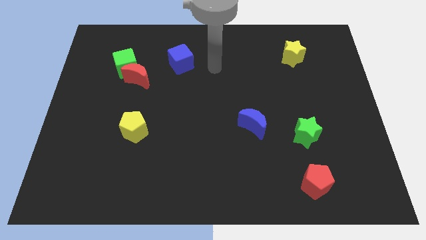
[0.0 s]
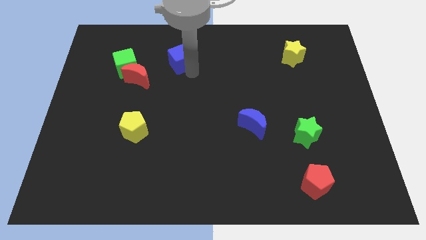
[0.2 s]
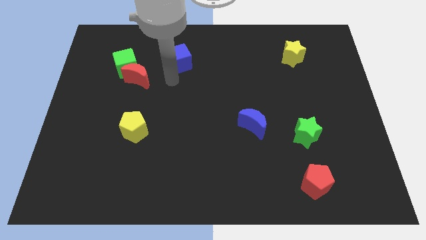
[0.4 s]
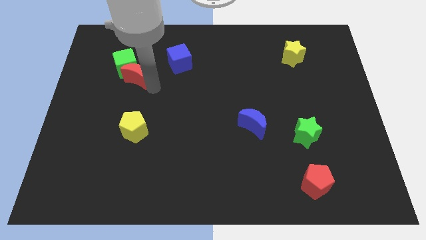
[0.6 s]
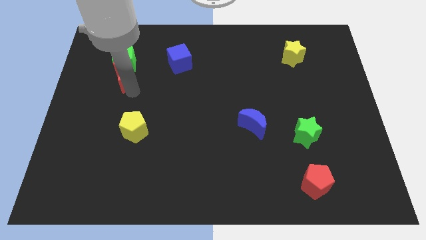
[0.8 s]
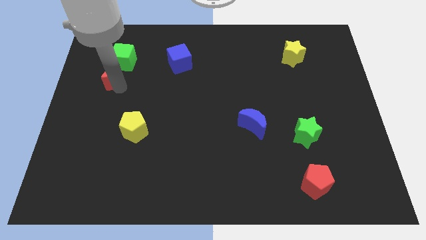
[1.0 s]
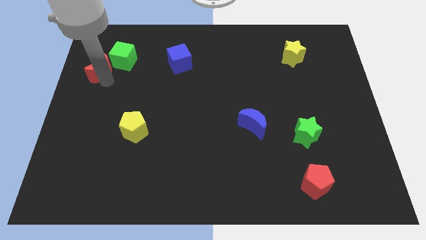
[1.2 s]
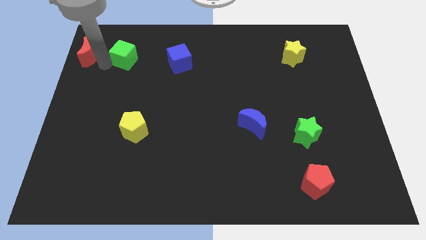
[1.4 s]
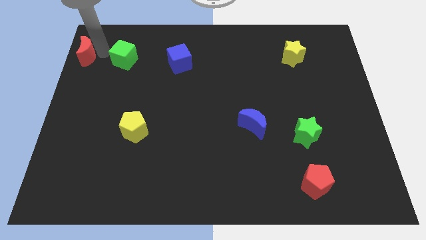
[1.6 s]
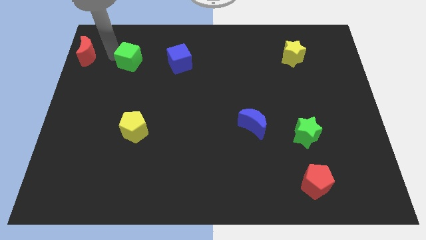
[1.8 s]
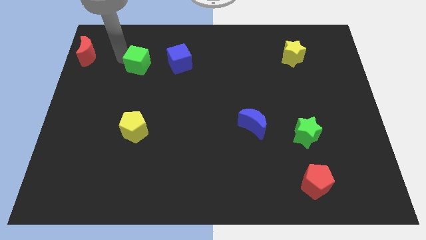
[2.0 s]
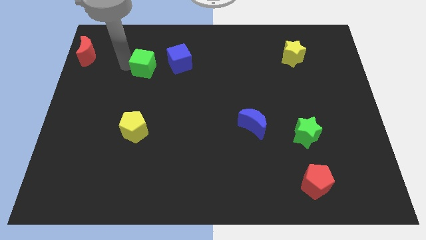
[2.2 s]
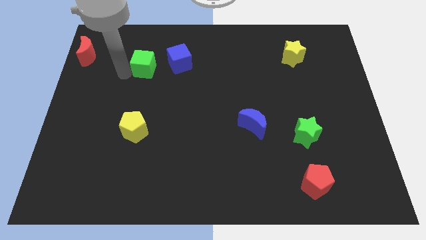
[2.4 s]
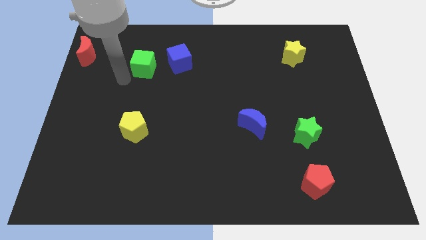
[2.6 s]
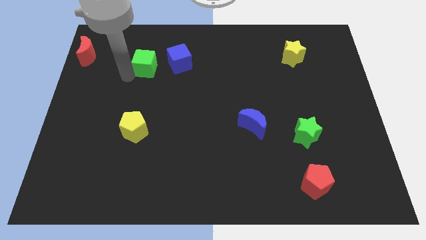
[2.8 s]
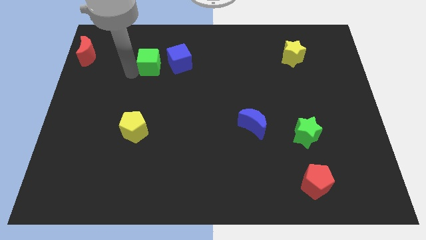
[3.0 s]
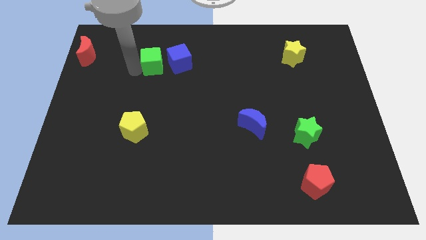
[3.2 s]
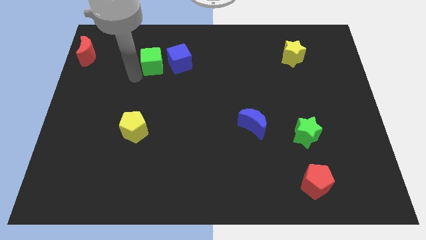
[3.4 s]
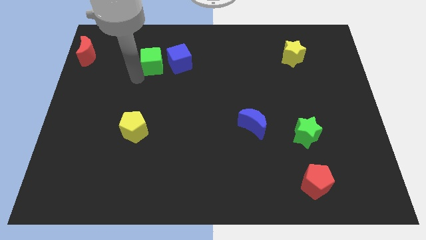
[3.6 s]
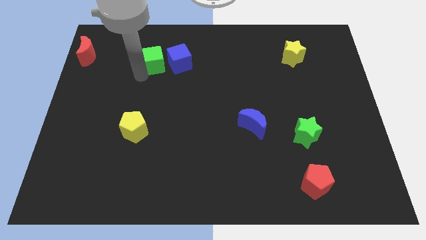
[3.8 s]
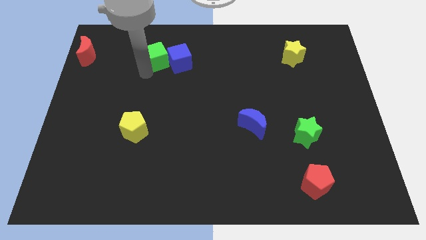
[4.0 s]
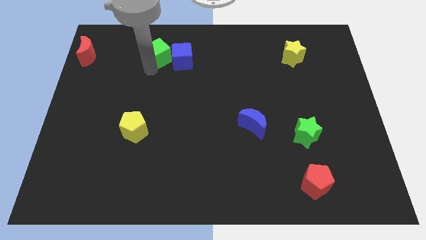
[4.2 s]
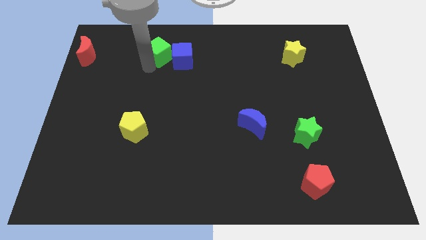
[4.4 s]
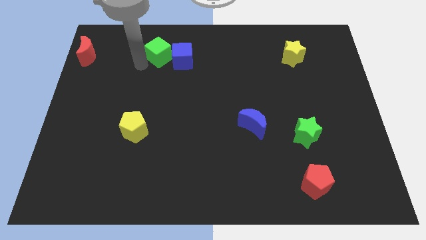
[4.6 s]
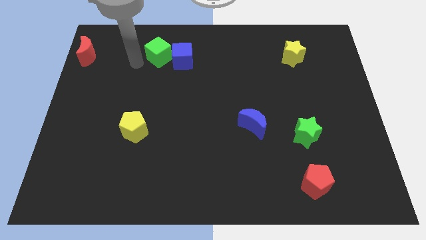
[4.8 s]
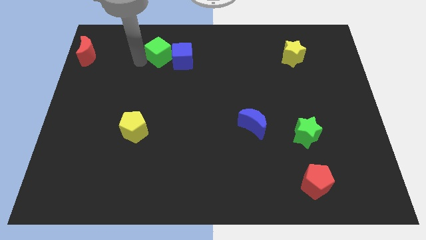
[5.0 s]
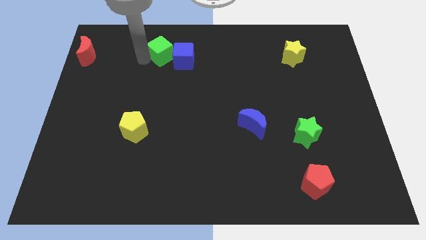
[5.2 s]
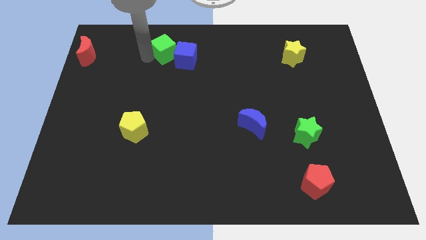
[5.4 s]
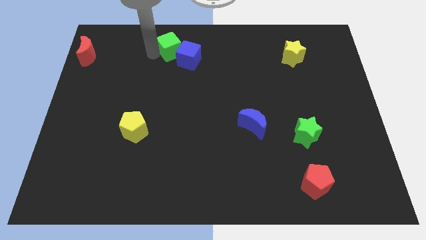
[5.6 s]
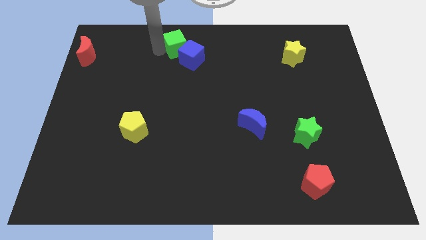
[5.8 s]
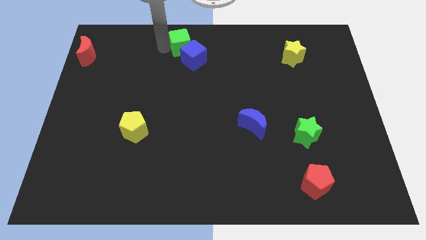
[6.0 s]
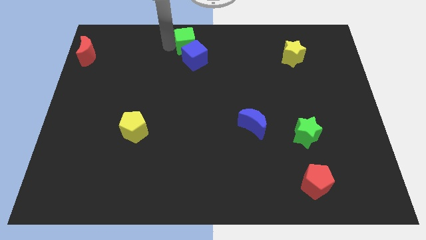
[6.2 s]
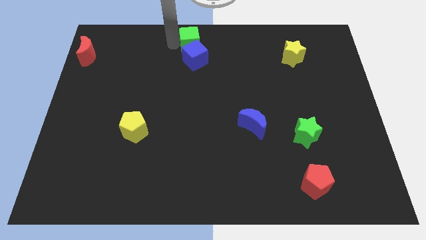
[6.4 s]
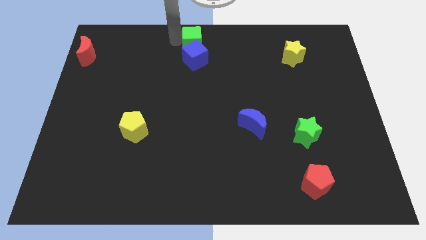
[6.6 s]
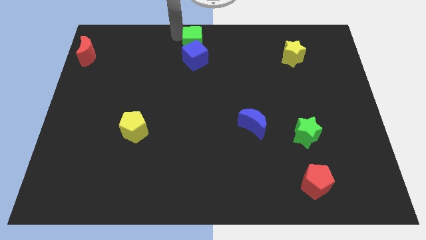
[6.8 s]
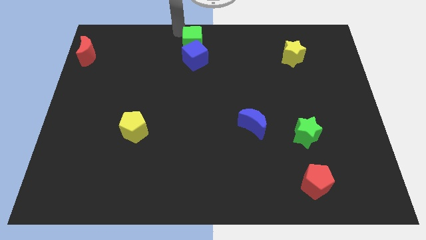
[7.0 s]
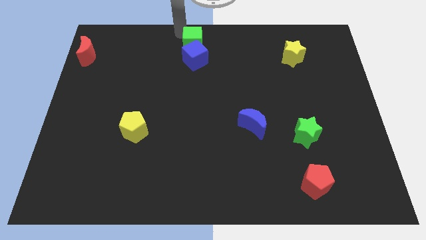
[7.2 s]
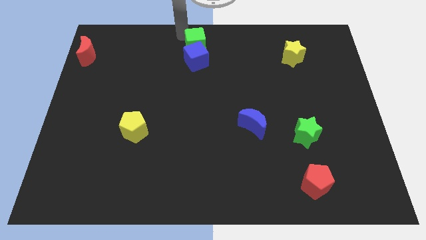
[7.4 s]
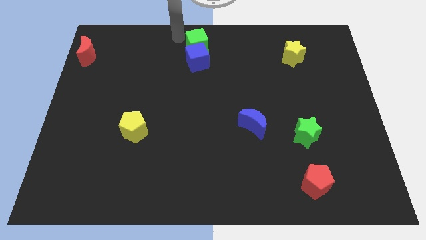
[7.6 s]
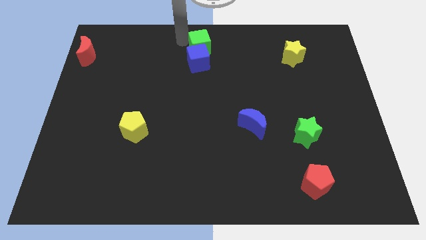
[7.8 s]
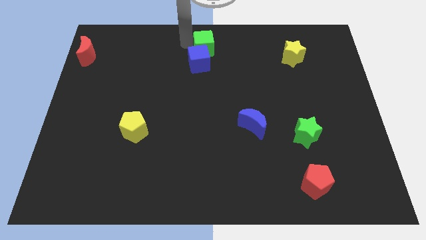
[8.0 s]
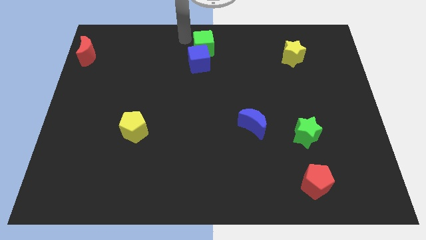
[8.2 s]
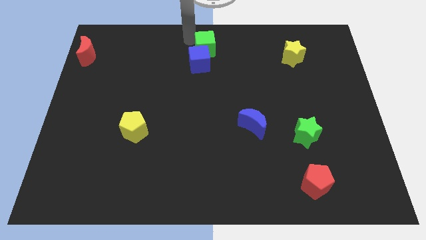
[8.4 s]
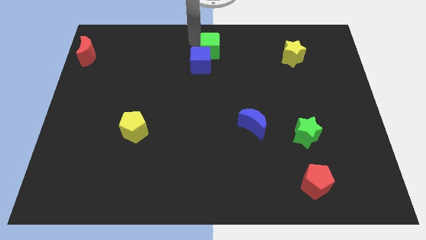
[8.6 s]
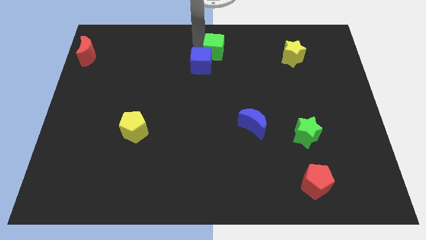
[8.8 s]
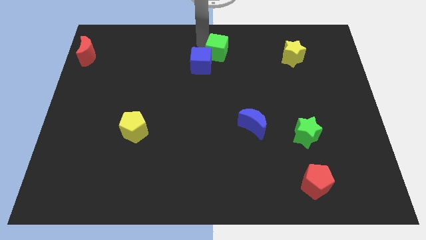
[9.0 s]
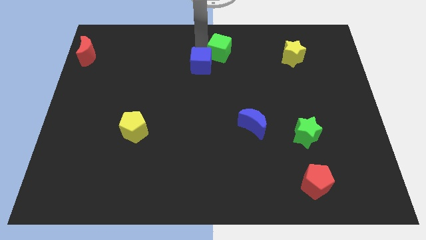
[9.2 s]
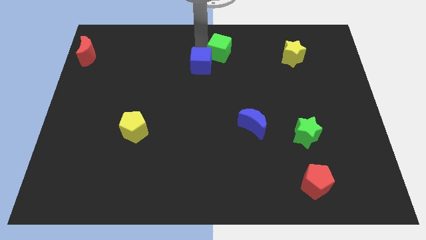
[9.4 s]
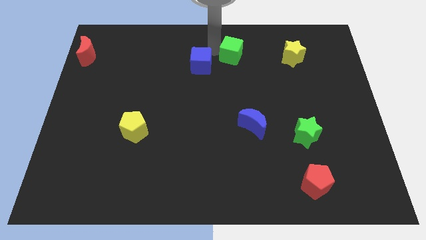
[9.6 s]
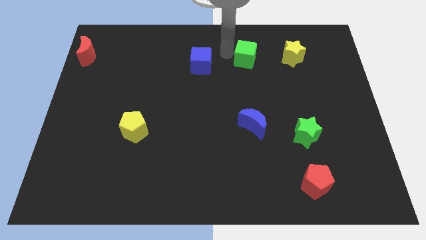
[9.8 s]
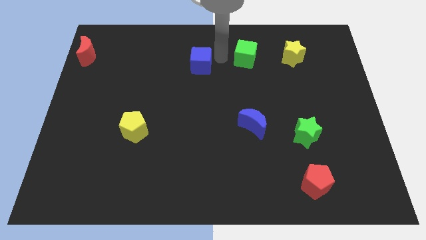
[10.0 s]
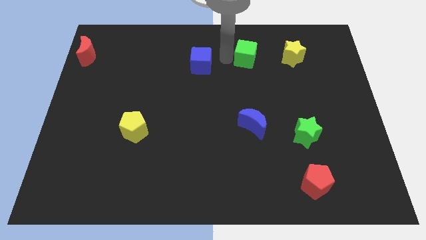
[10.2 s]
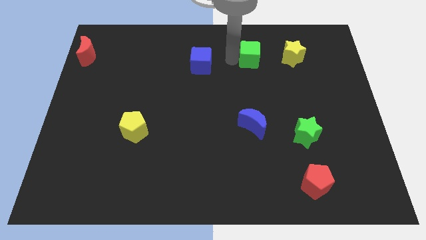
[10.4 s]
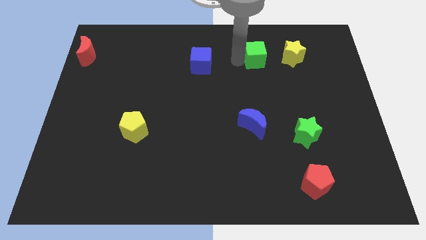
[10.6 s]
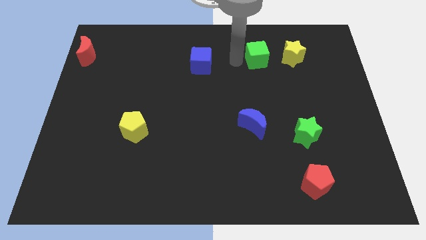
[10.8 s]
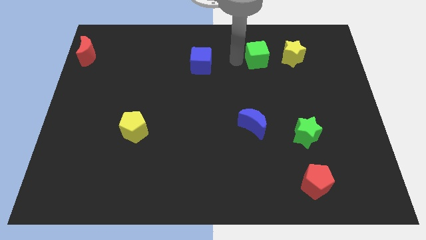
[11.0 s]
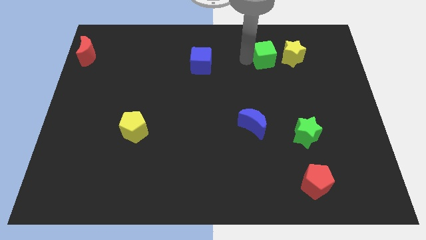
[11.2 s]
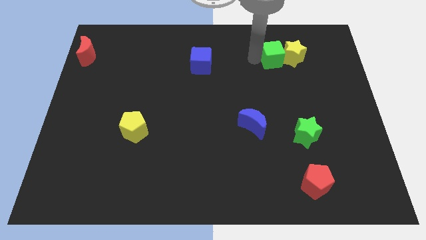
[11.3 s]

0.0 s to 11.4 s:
put the green cube to the yellow star

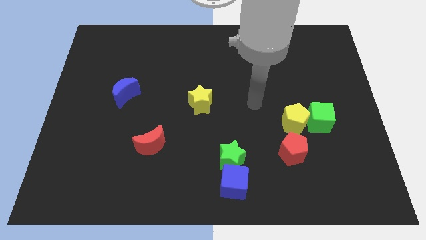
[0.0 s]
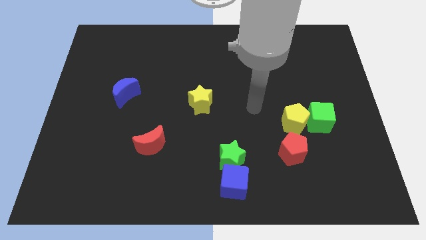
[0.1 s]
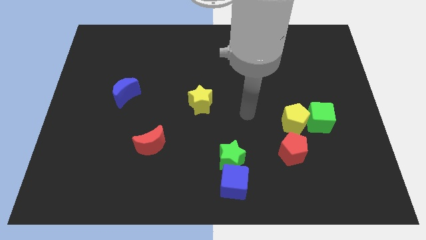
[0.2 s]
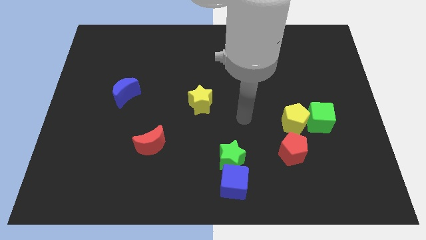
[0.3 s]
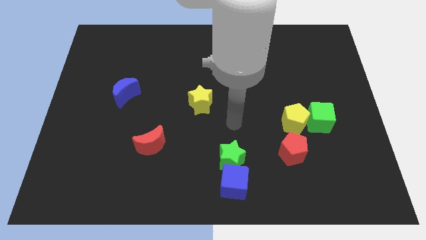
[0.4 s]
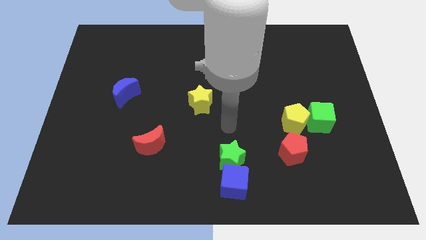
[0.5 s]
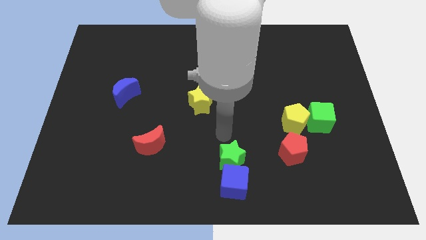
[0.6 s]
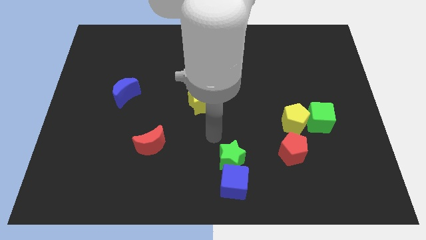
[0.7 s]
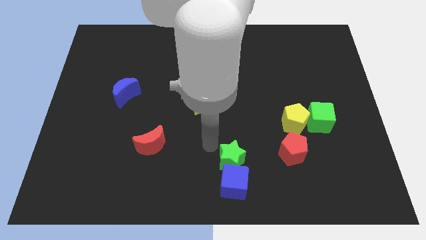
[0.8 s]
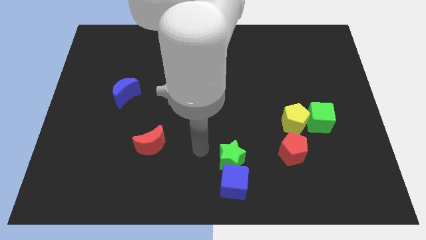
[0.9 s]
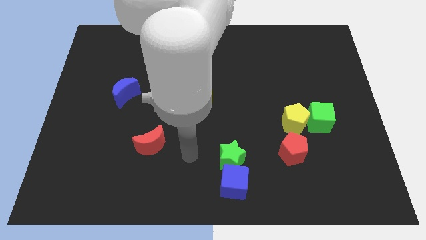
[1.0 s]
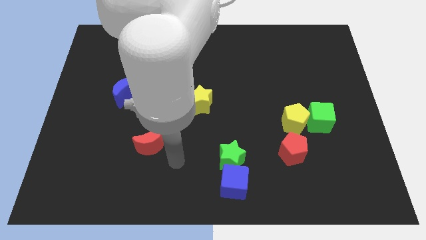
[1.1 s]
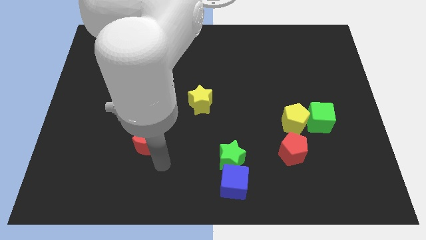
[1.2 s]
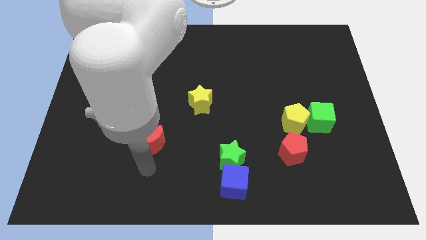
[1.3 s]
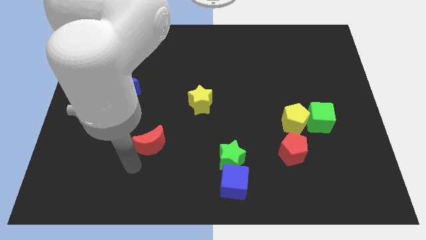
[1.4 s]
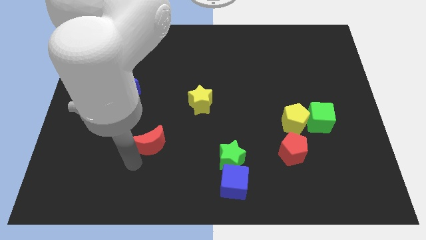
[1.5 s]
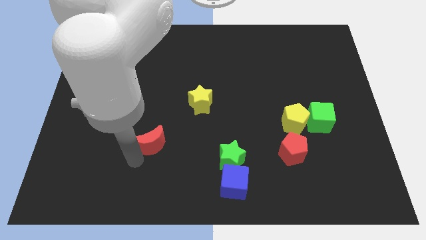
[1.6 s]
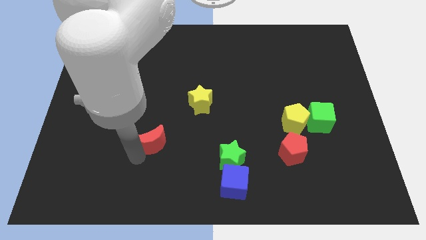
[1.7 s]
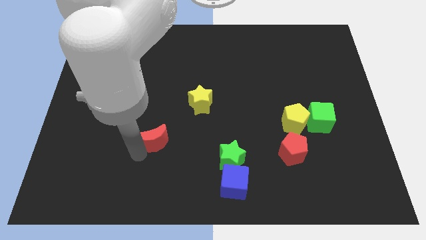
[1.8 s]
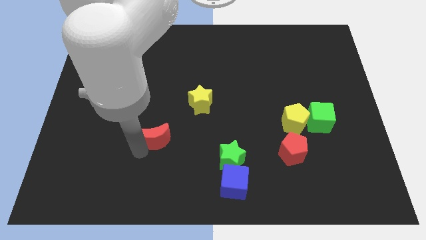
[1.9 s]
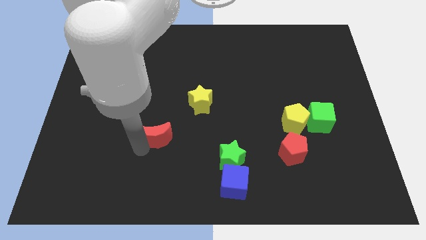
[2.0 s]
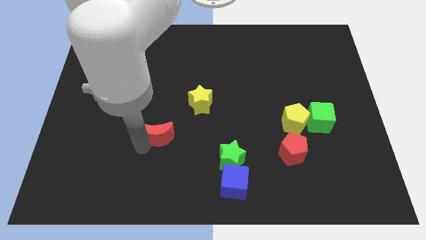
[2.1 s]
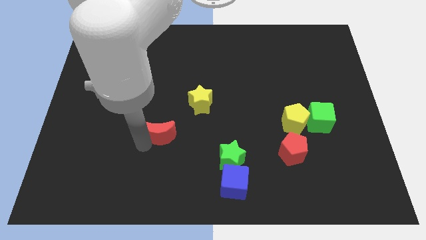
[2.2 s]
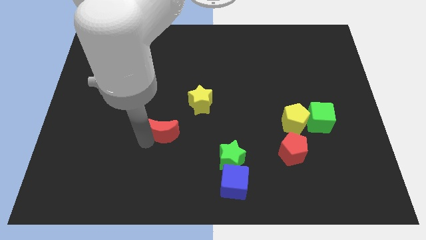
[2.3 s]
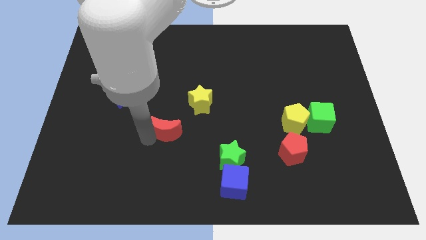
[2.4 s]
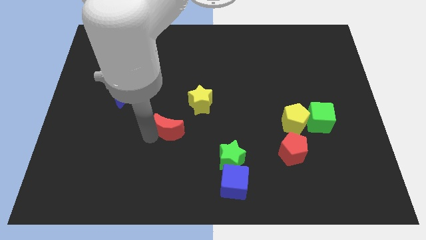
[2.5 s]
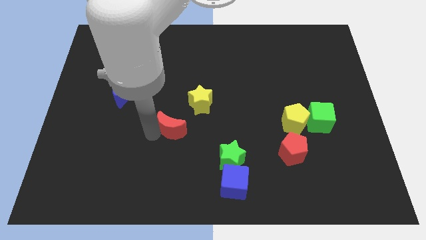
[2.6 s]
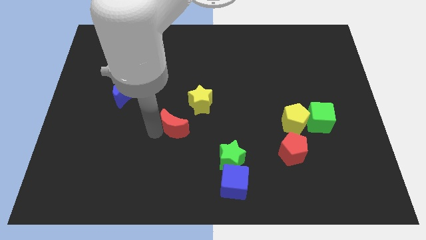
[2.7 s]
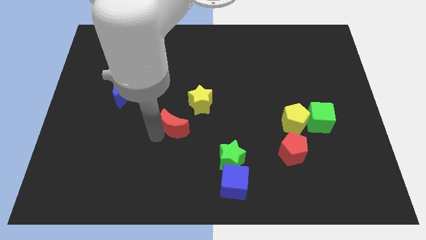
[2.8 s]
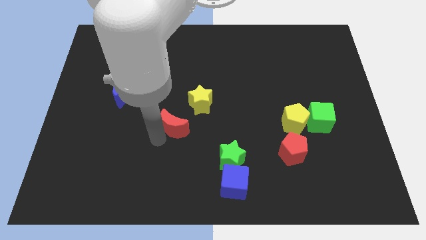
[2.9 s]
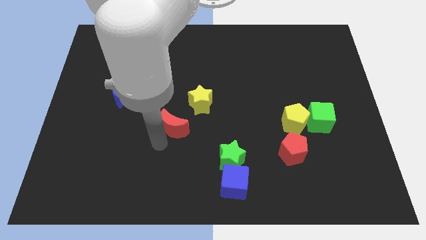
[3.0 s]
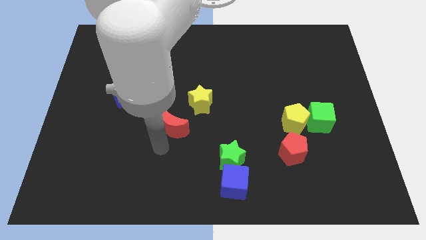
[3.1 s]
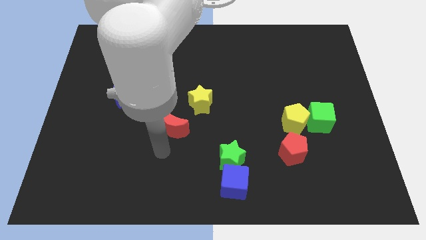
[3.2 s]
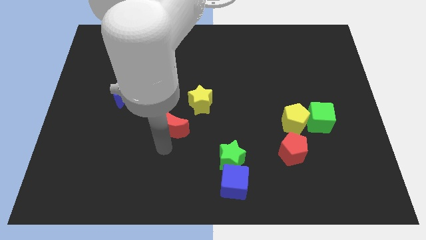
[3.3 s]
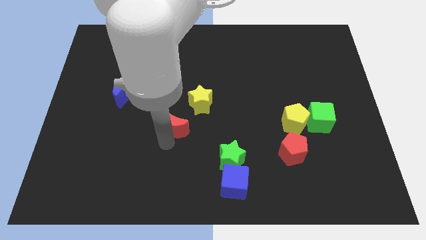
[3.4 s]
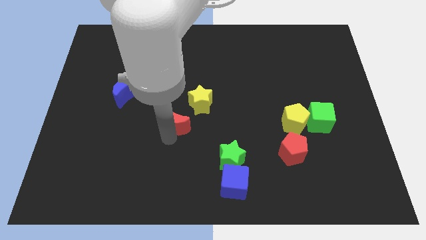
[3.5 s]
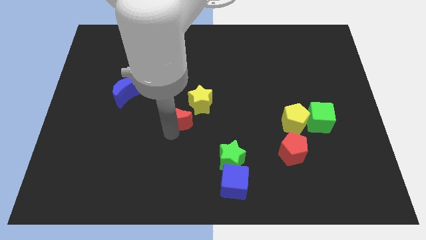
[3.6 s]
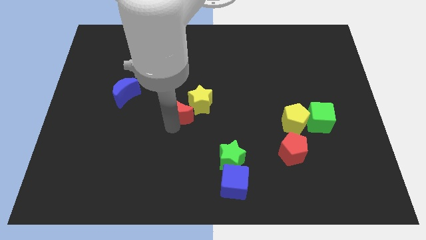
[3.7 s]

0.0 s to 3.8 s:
push the red moon close to the yellow star
